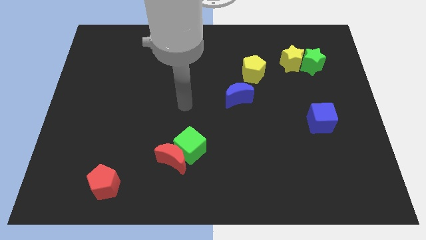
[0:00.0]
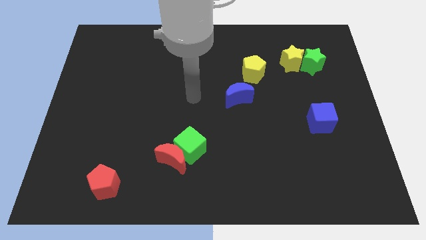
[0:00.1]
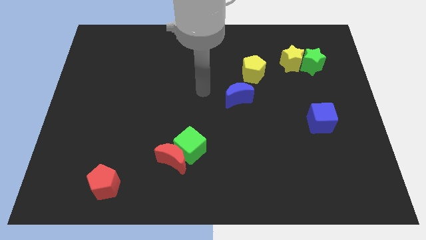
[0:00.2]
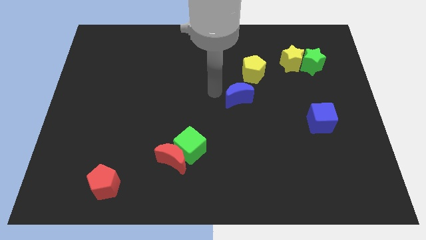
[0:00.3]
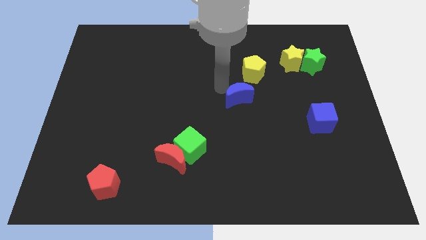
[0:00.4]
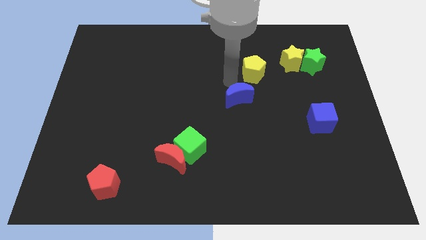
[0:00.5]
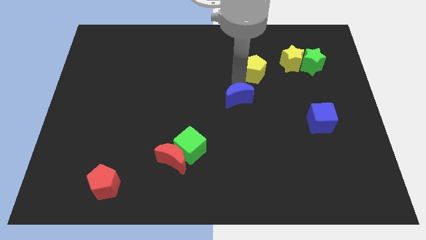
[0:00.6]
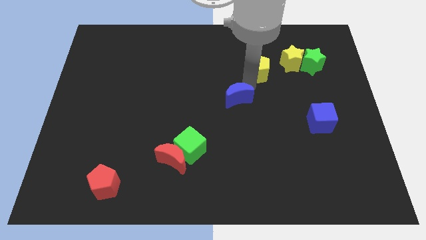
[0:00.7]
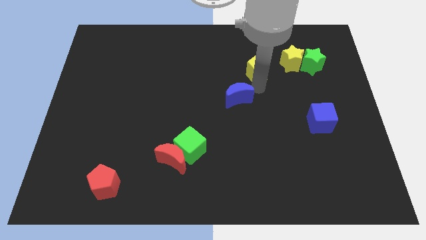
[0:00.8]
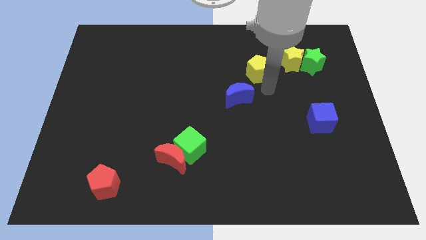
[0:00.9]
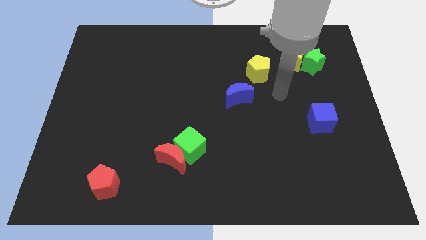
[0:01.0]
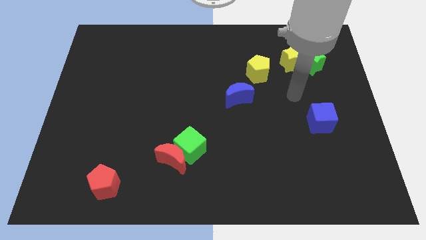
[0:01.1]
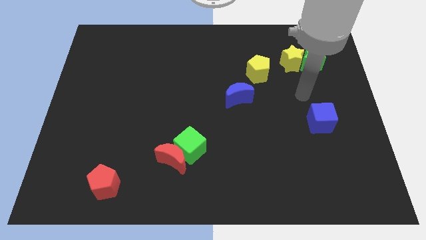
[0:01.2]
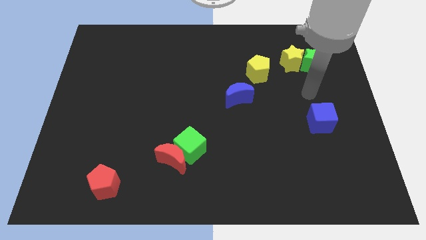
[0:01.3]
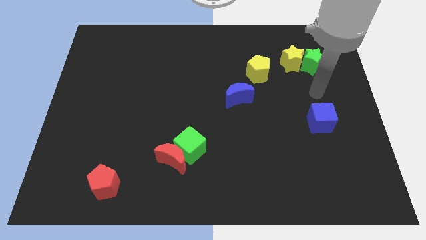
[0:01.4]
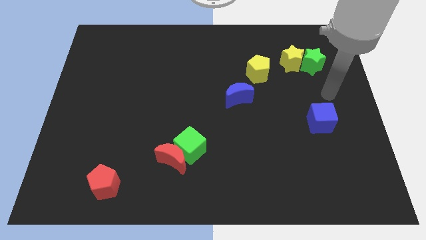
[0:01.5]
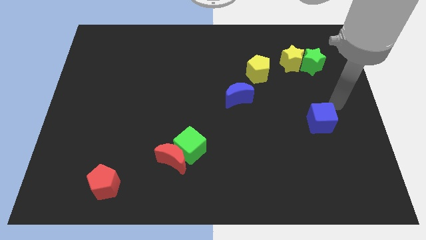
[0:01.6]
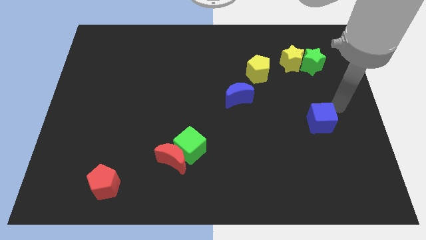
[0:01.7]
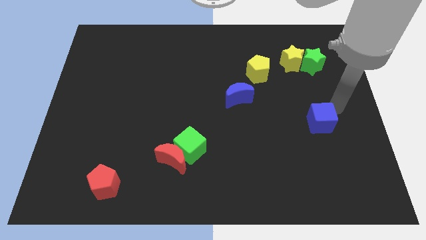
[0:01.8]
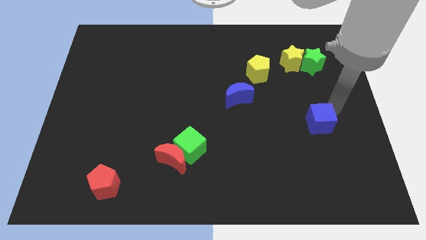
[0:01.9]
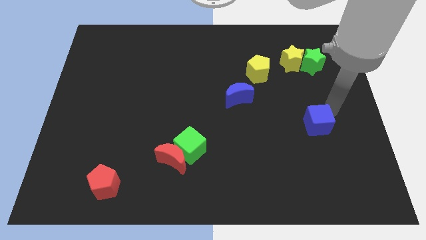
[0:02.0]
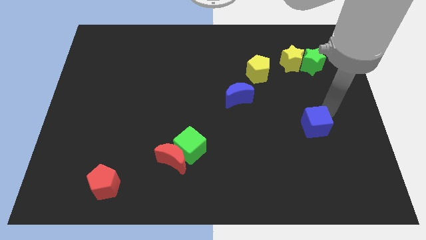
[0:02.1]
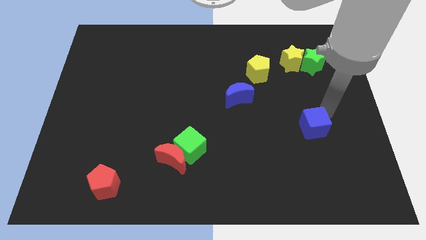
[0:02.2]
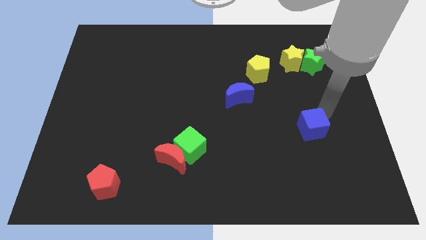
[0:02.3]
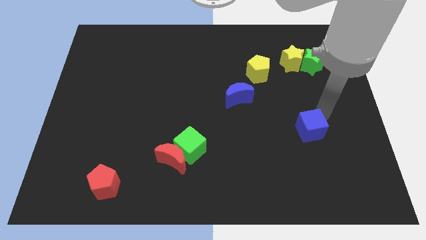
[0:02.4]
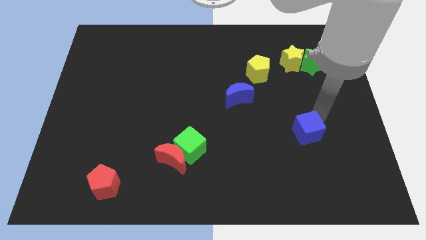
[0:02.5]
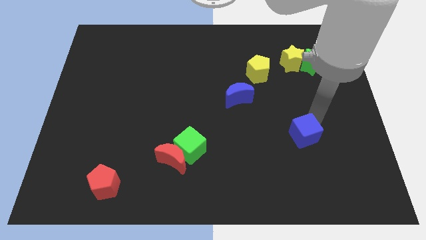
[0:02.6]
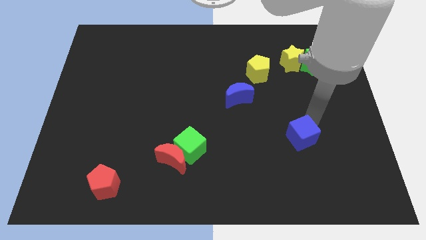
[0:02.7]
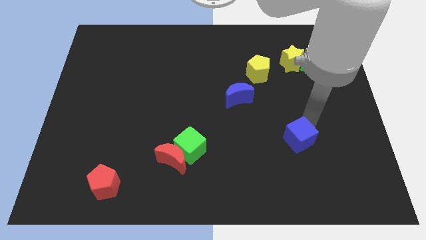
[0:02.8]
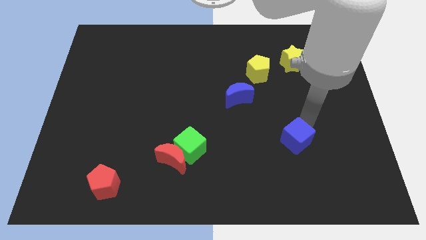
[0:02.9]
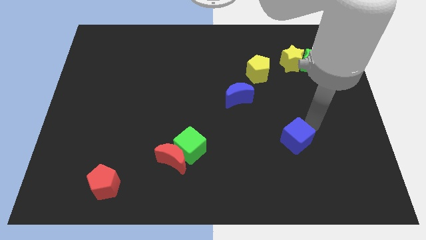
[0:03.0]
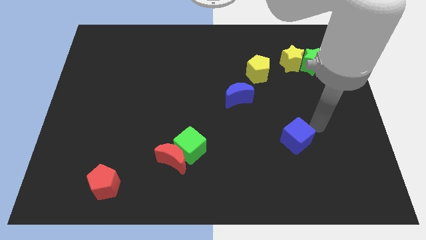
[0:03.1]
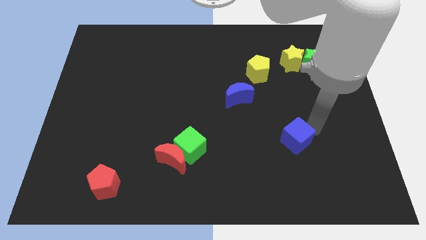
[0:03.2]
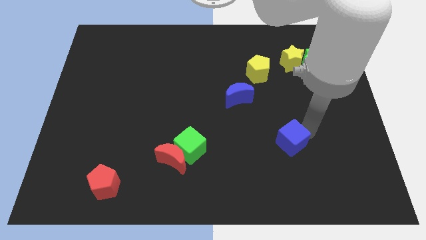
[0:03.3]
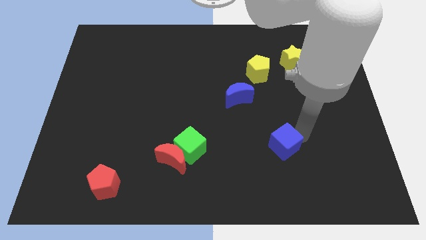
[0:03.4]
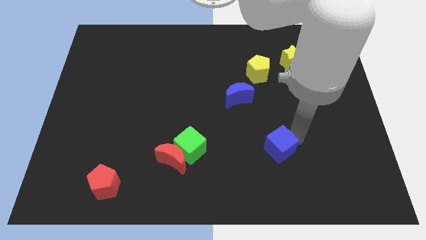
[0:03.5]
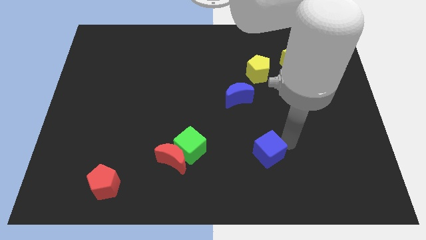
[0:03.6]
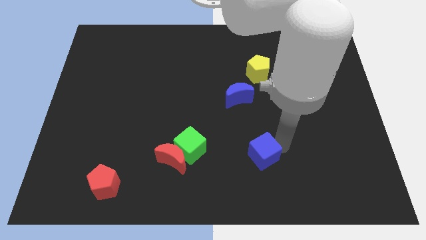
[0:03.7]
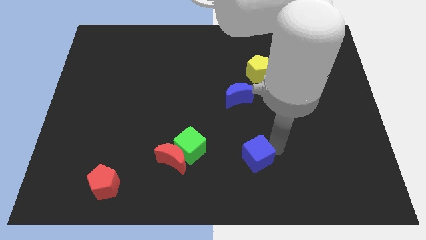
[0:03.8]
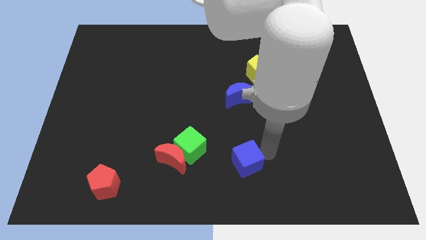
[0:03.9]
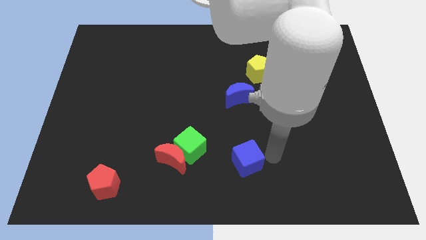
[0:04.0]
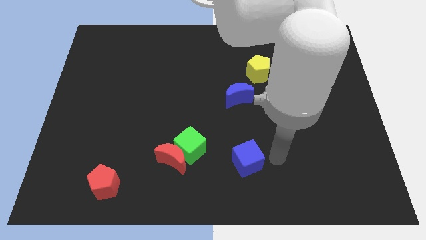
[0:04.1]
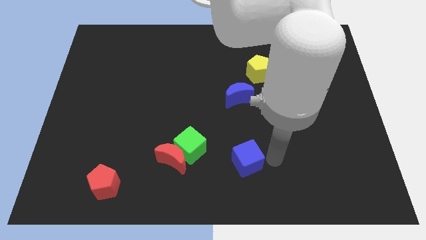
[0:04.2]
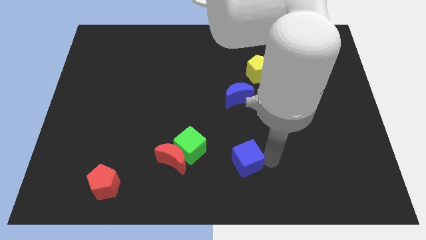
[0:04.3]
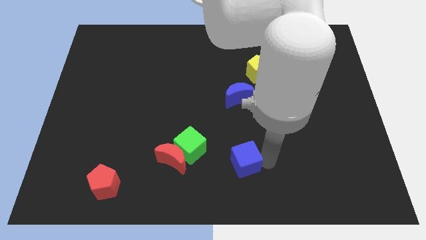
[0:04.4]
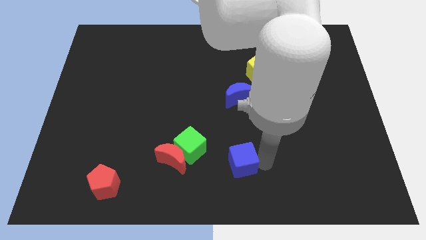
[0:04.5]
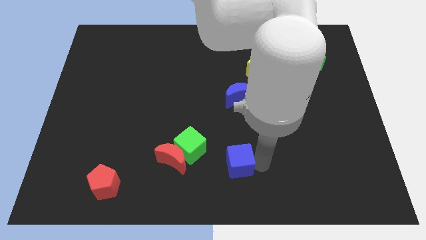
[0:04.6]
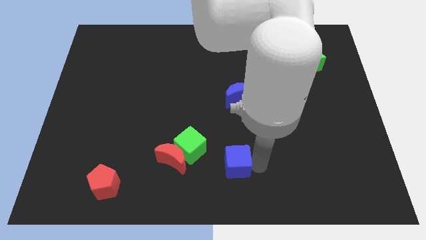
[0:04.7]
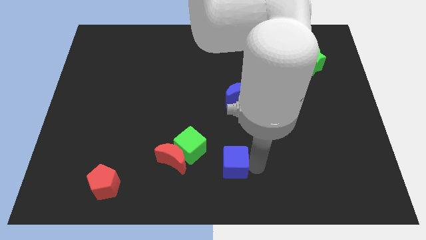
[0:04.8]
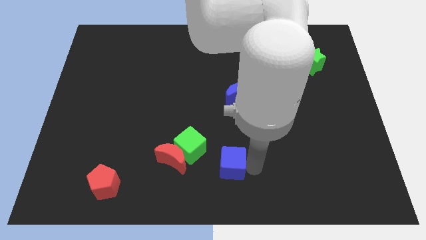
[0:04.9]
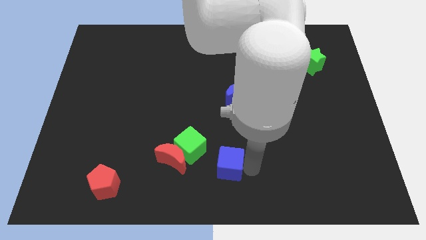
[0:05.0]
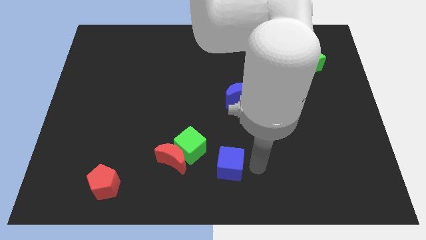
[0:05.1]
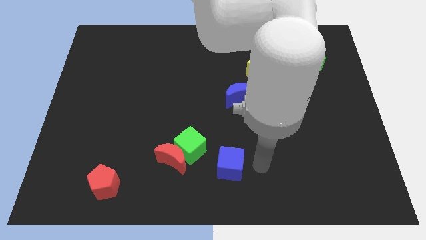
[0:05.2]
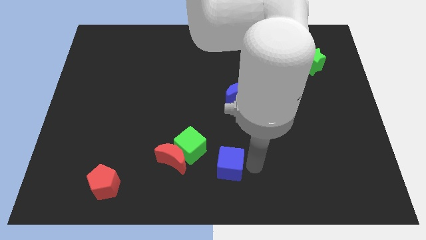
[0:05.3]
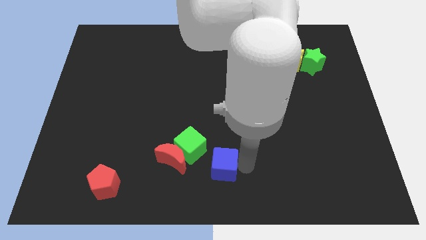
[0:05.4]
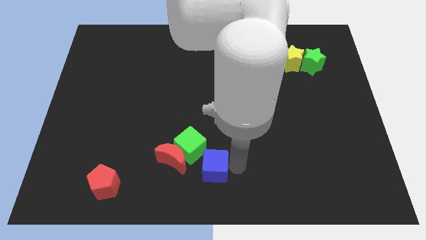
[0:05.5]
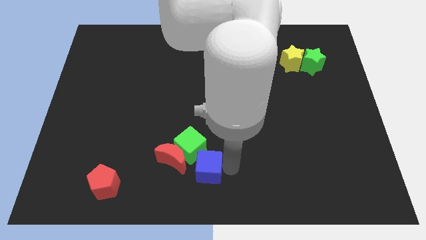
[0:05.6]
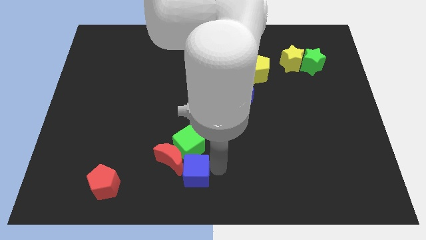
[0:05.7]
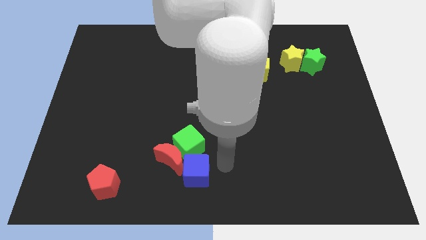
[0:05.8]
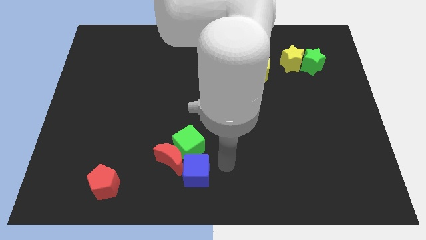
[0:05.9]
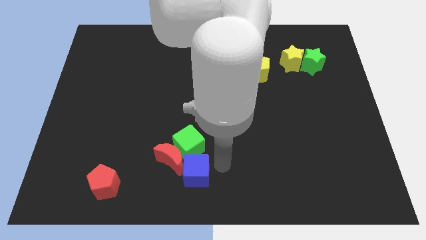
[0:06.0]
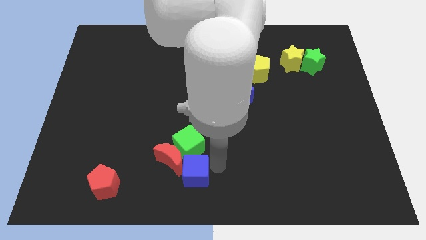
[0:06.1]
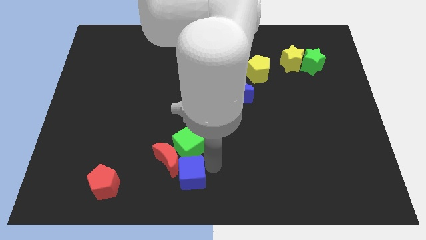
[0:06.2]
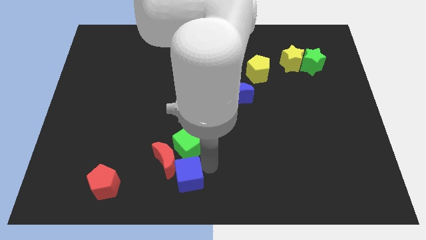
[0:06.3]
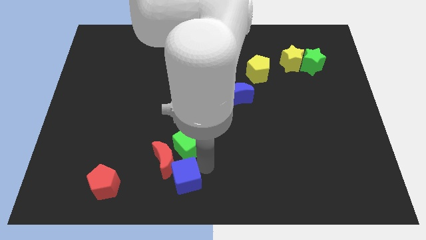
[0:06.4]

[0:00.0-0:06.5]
move the blue cube to the right of the red pentagon
